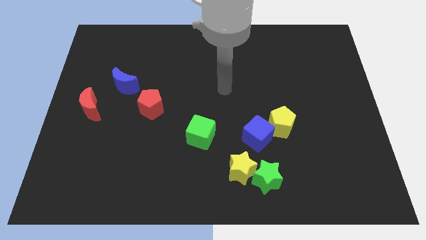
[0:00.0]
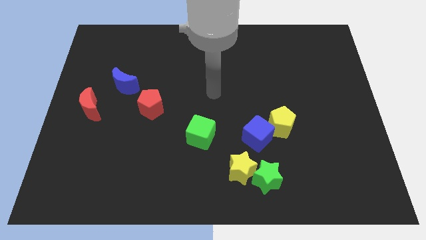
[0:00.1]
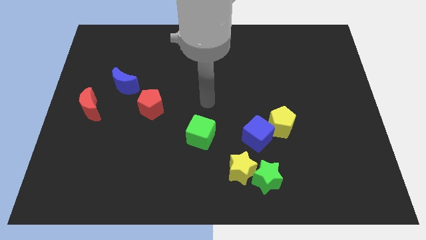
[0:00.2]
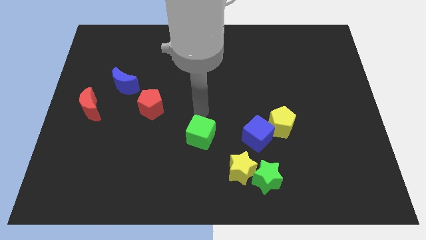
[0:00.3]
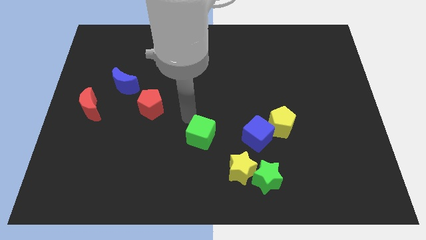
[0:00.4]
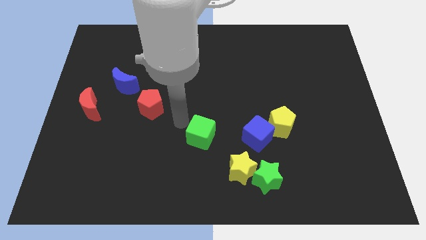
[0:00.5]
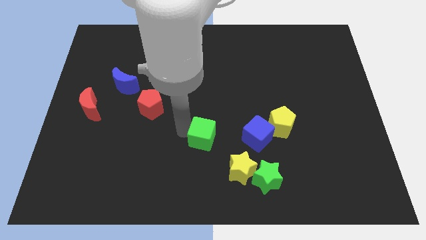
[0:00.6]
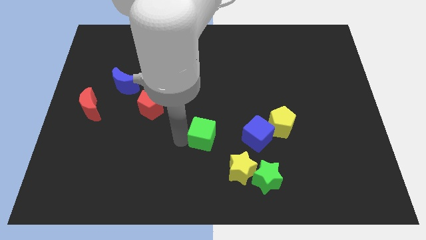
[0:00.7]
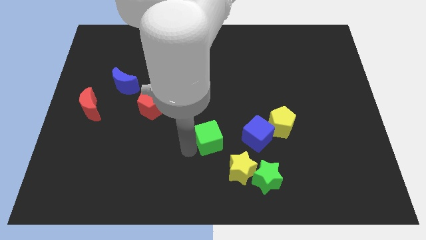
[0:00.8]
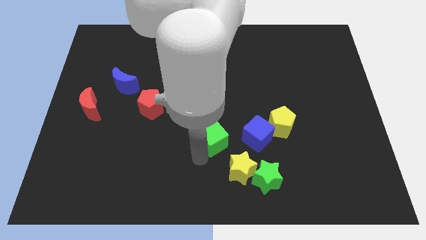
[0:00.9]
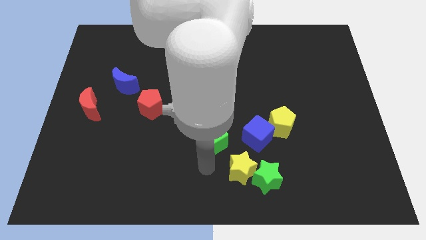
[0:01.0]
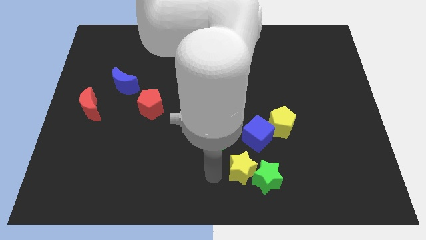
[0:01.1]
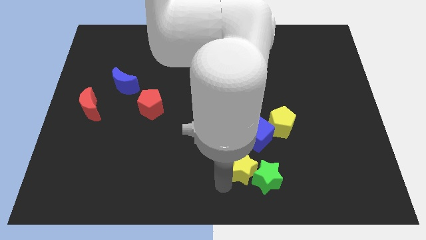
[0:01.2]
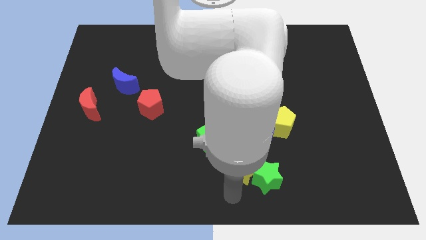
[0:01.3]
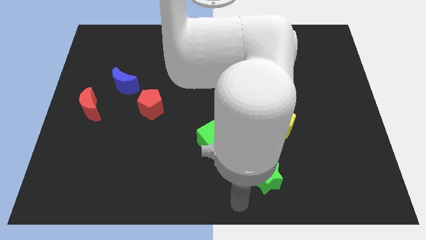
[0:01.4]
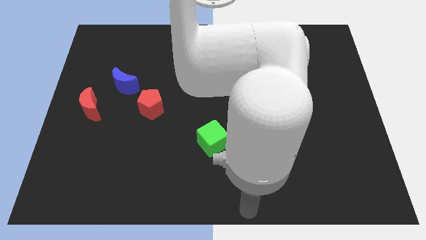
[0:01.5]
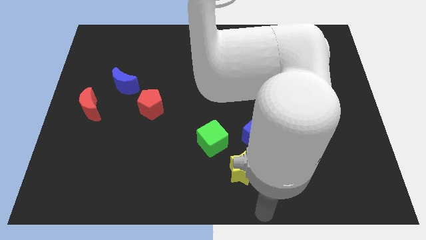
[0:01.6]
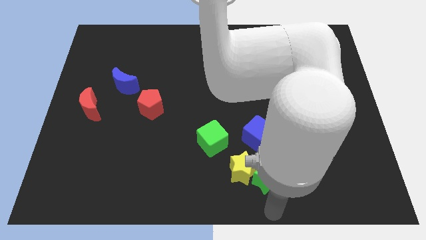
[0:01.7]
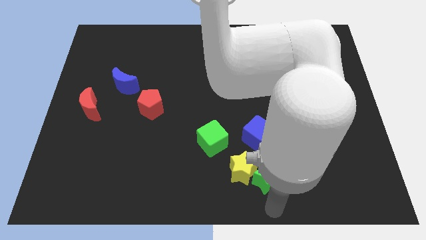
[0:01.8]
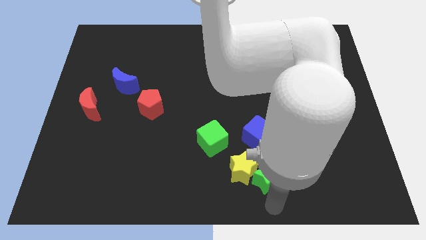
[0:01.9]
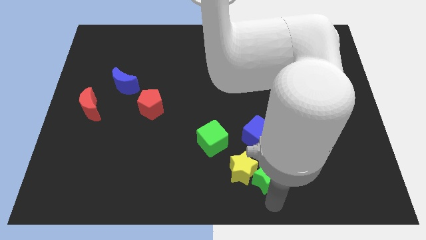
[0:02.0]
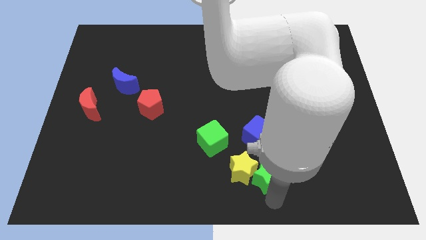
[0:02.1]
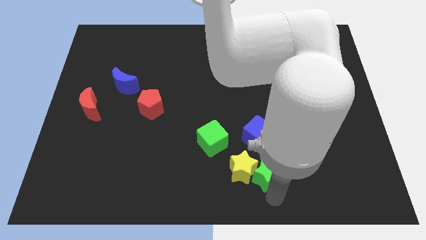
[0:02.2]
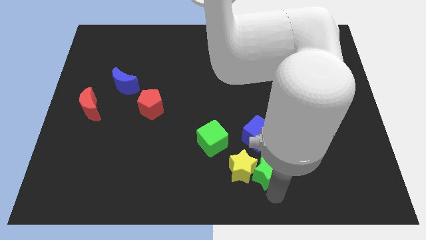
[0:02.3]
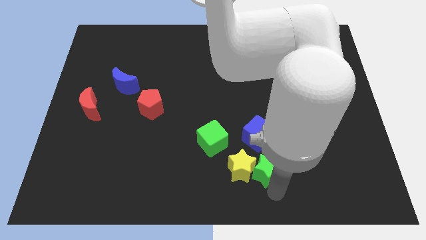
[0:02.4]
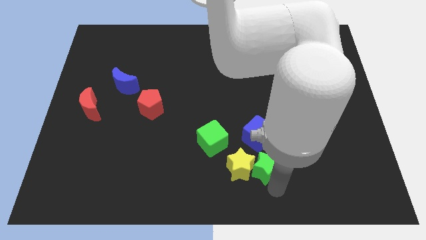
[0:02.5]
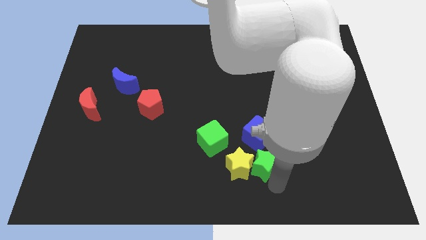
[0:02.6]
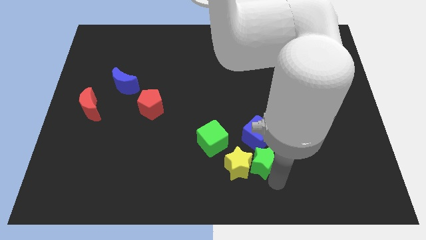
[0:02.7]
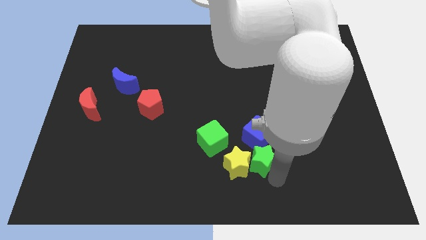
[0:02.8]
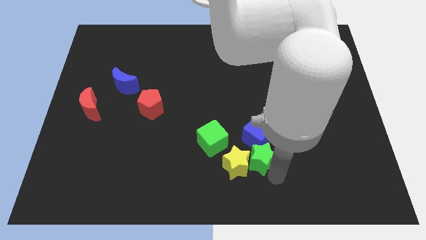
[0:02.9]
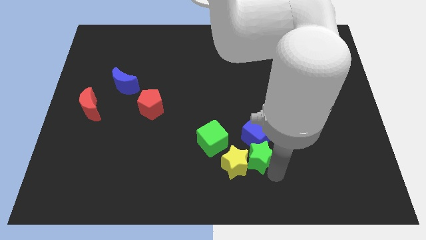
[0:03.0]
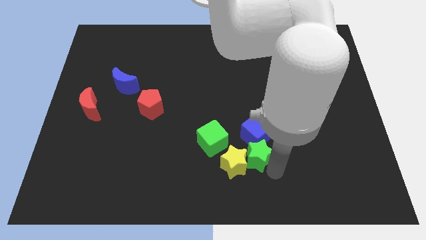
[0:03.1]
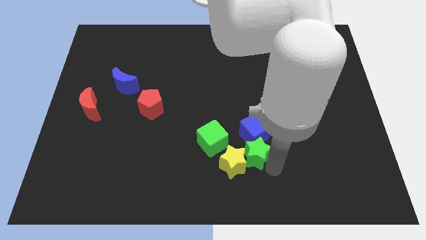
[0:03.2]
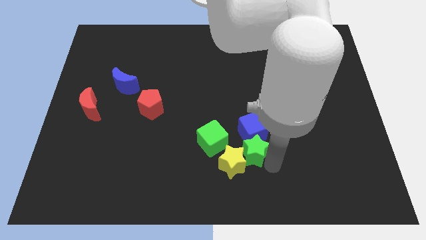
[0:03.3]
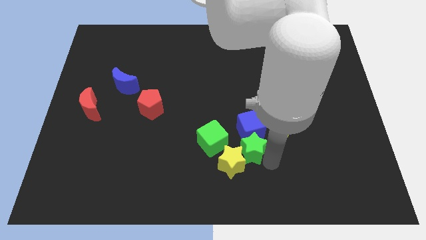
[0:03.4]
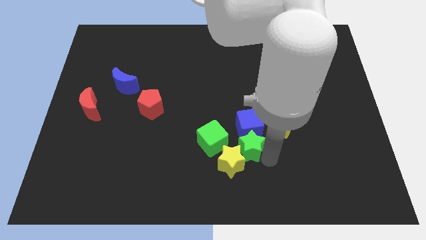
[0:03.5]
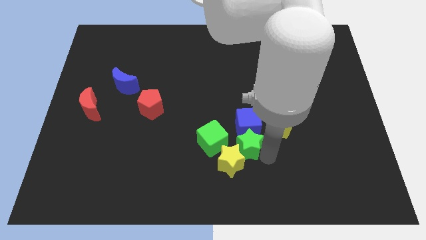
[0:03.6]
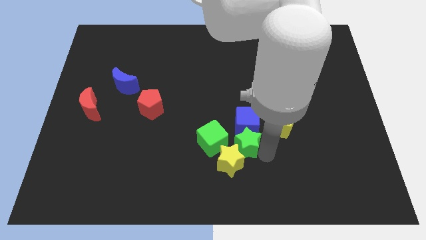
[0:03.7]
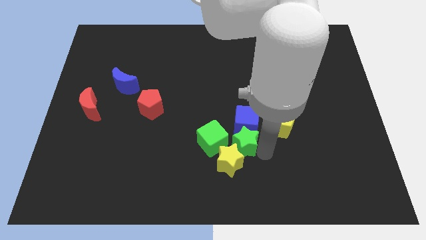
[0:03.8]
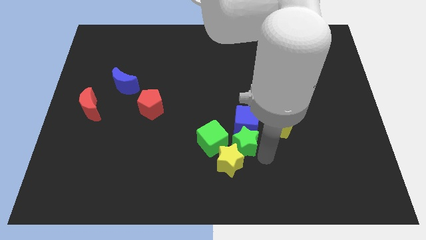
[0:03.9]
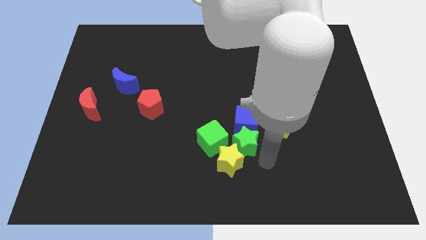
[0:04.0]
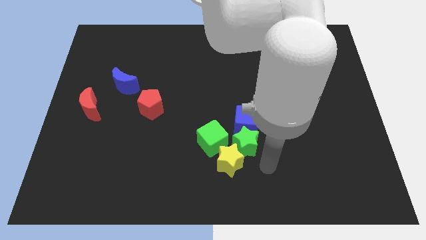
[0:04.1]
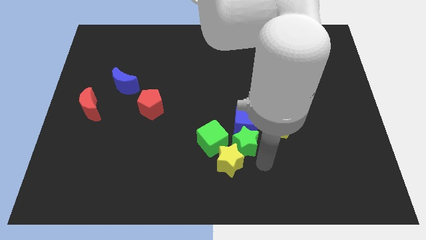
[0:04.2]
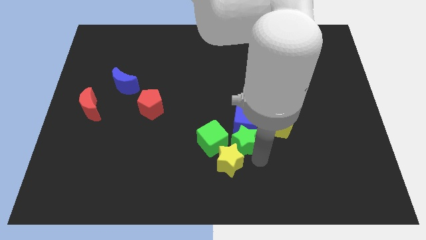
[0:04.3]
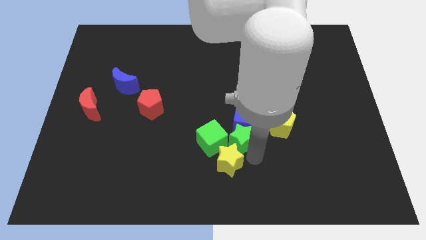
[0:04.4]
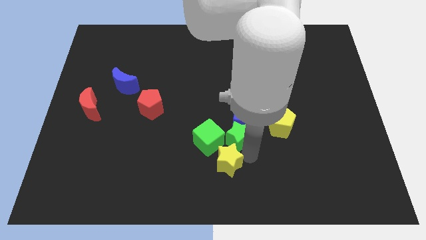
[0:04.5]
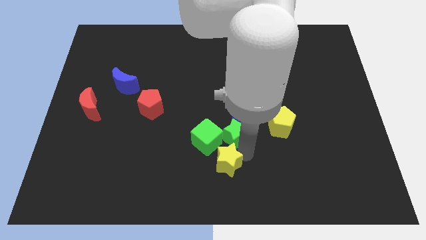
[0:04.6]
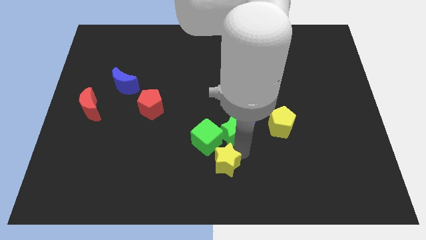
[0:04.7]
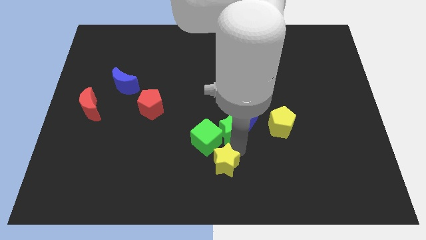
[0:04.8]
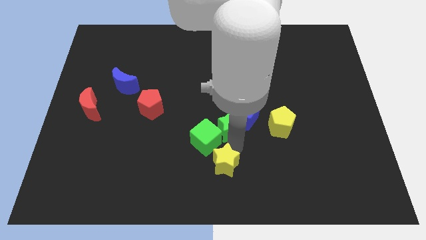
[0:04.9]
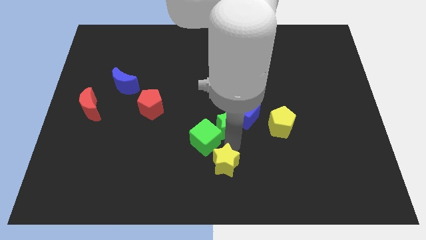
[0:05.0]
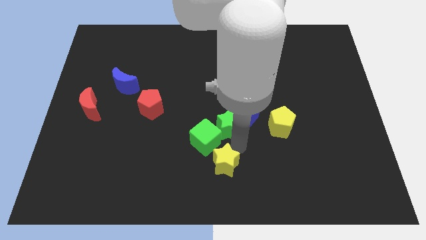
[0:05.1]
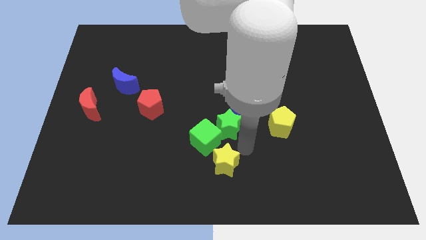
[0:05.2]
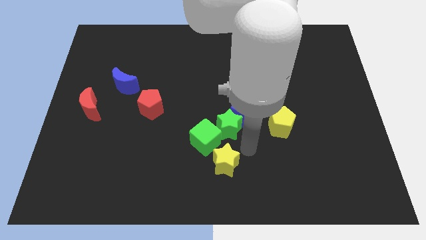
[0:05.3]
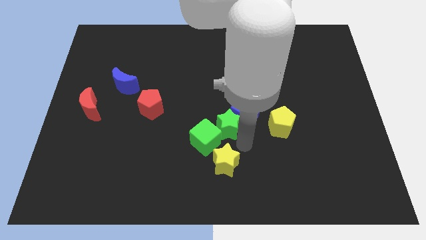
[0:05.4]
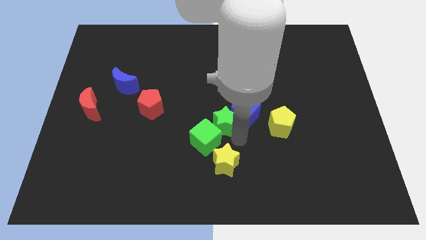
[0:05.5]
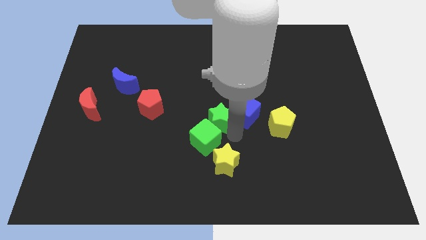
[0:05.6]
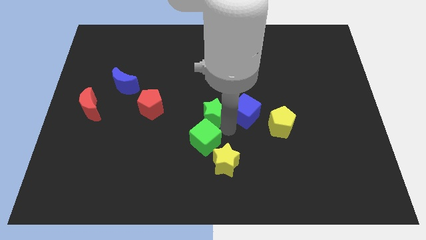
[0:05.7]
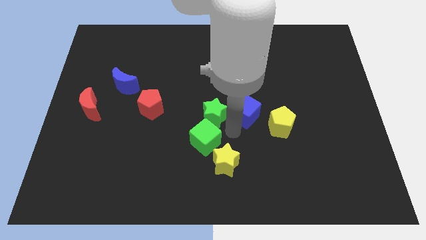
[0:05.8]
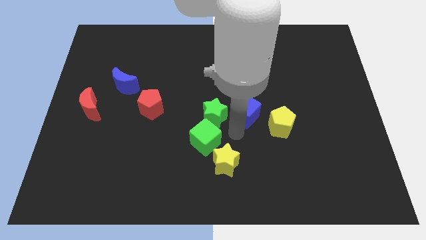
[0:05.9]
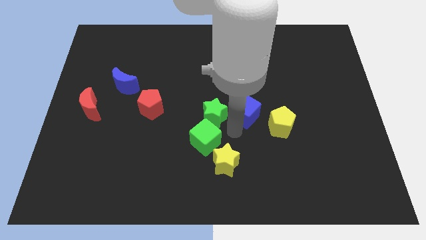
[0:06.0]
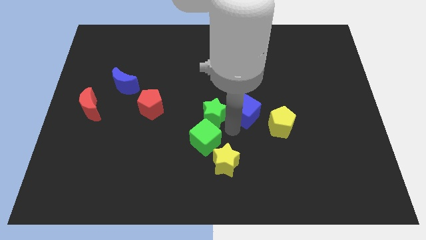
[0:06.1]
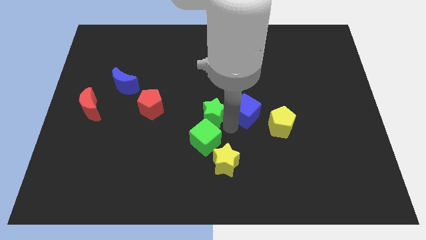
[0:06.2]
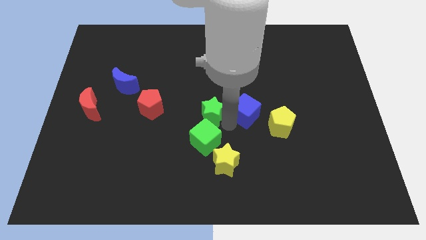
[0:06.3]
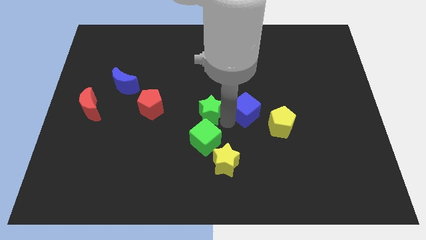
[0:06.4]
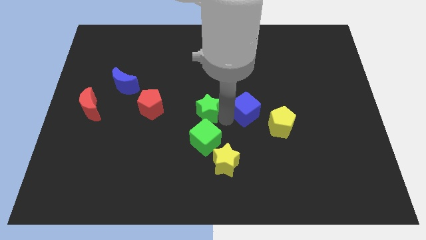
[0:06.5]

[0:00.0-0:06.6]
push the green star diagonally upwards and to the left

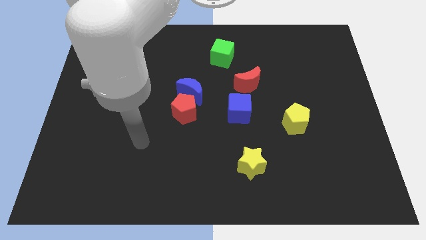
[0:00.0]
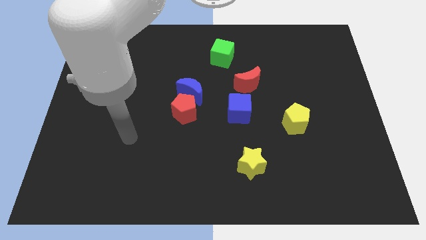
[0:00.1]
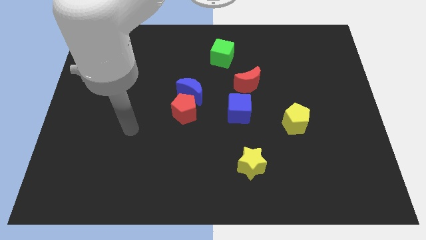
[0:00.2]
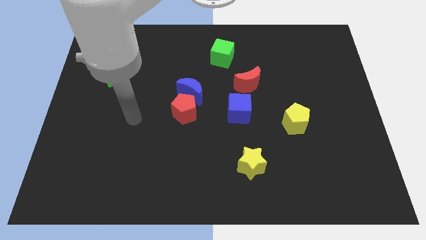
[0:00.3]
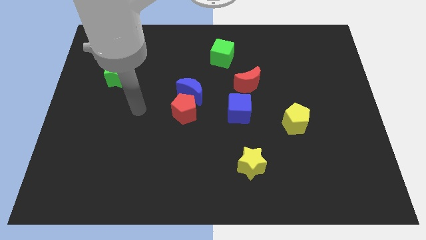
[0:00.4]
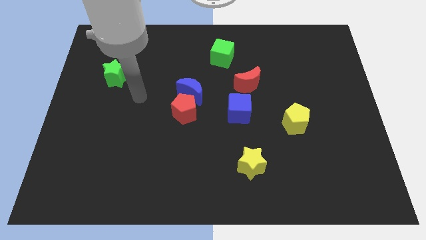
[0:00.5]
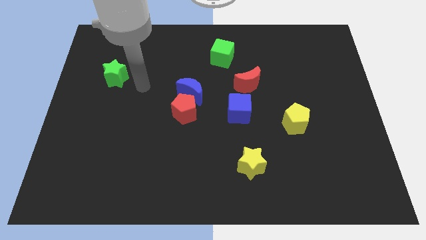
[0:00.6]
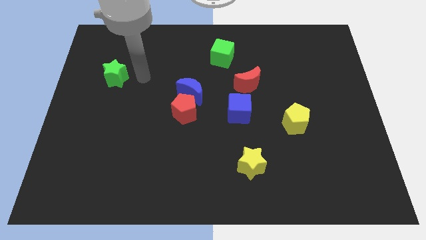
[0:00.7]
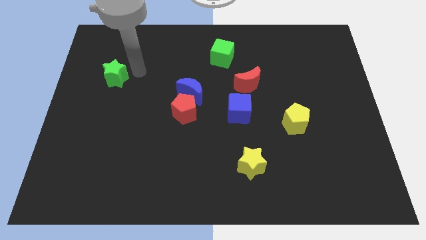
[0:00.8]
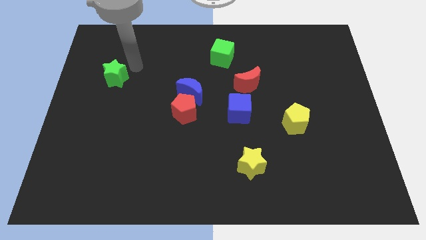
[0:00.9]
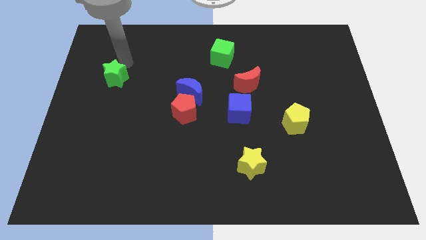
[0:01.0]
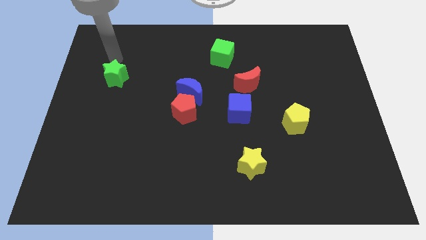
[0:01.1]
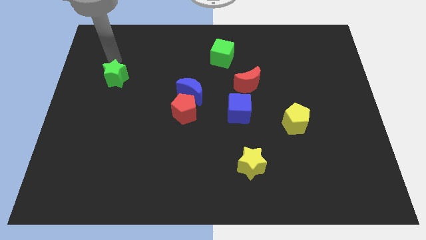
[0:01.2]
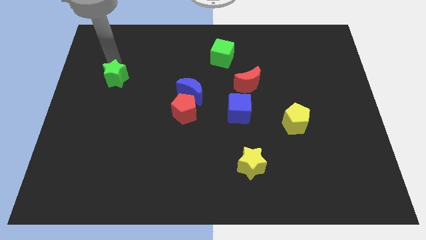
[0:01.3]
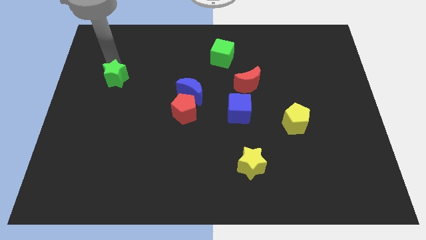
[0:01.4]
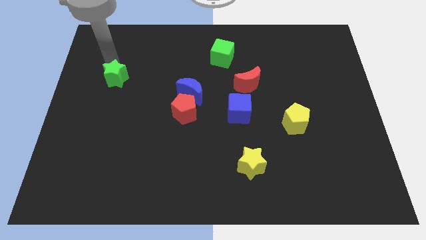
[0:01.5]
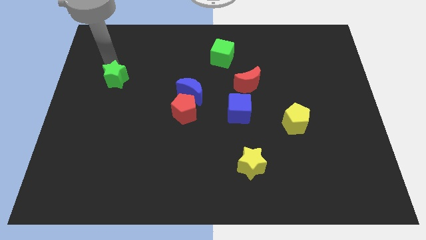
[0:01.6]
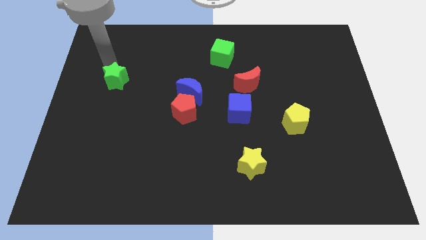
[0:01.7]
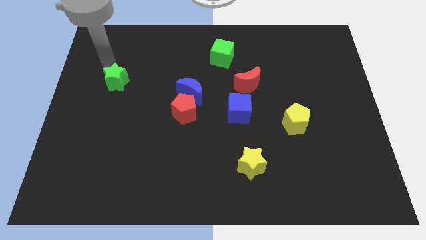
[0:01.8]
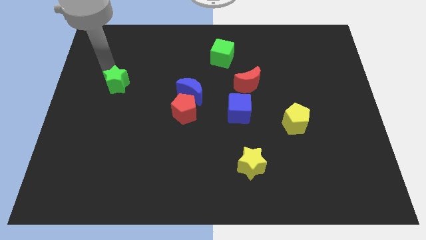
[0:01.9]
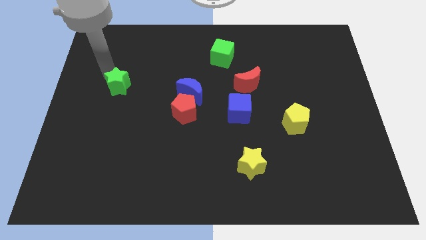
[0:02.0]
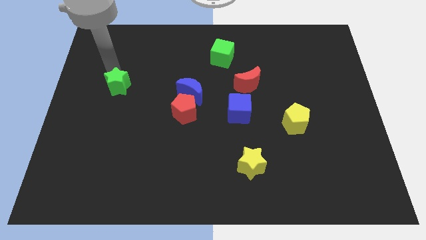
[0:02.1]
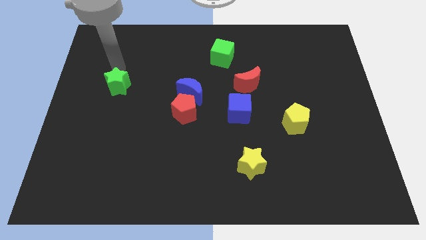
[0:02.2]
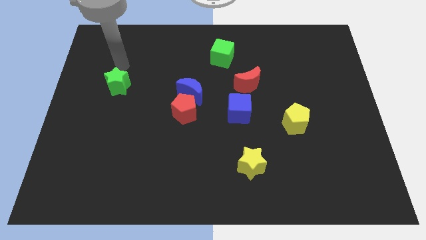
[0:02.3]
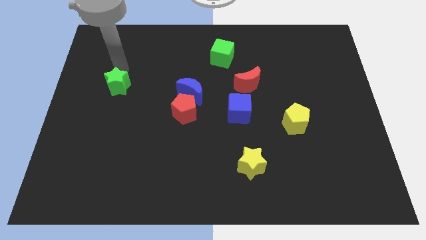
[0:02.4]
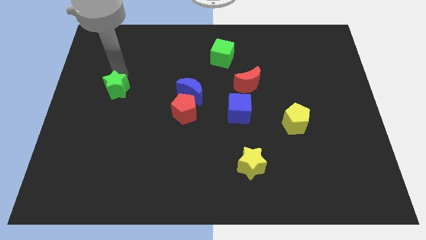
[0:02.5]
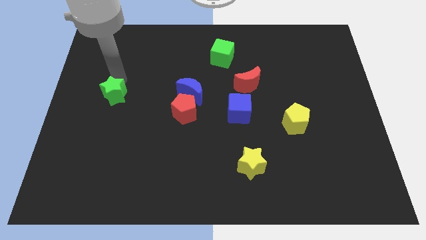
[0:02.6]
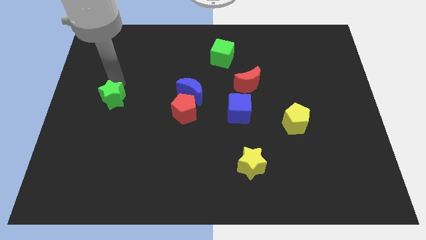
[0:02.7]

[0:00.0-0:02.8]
slide the green star somewhat down
